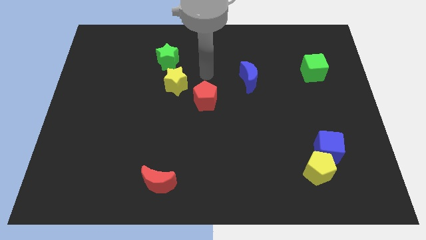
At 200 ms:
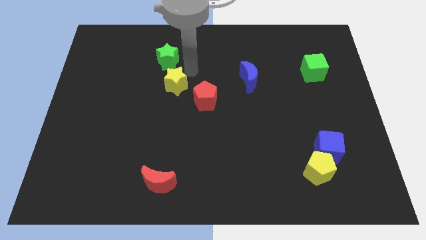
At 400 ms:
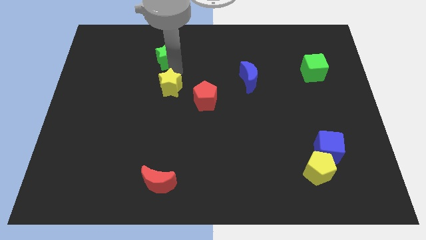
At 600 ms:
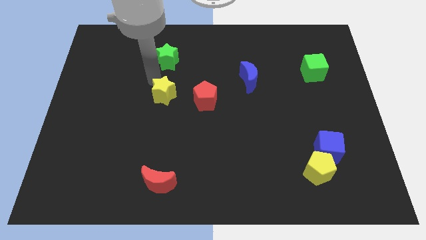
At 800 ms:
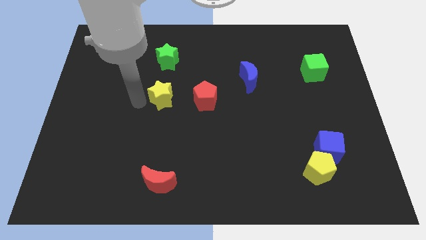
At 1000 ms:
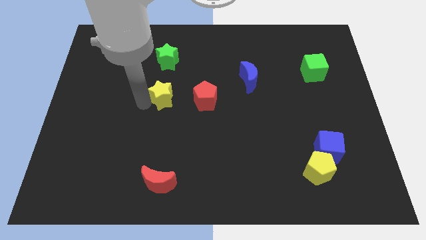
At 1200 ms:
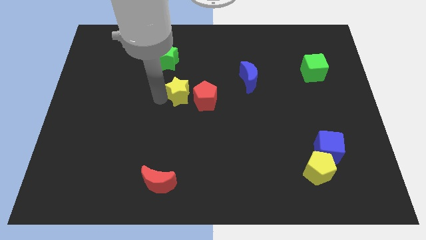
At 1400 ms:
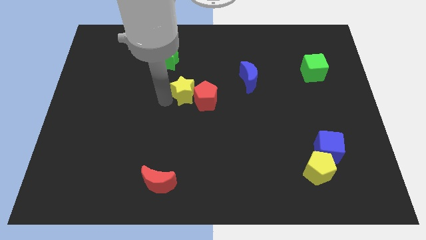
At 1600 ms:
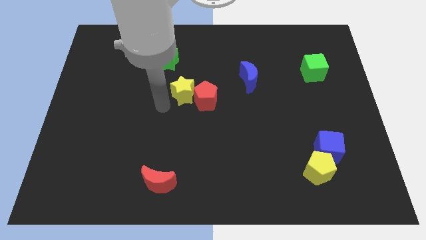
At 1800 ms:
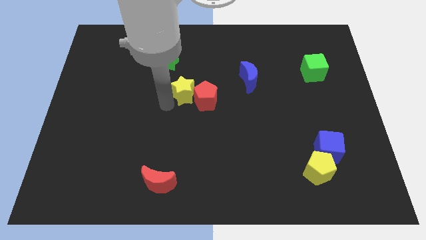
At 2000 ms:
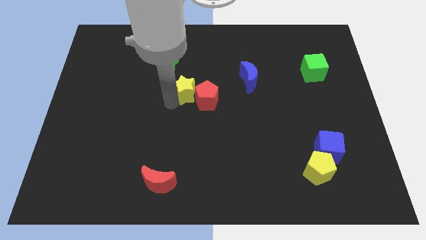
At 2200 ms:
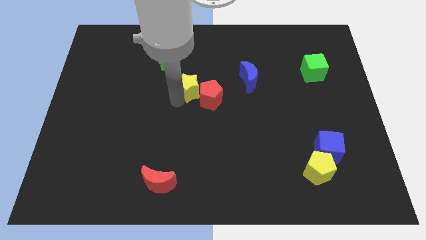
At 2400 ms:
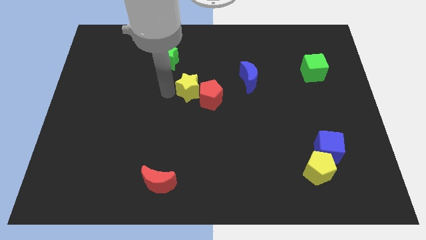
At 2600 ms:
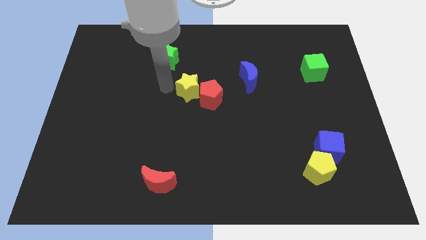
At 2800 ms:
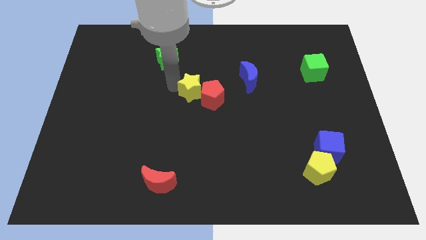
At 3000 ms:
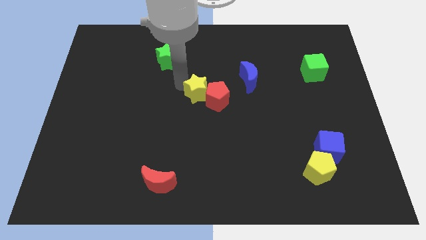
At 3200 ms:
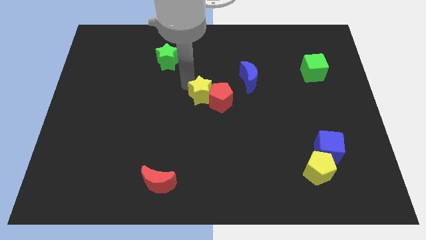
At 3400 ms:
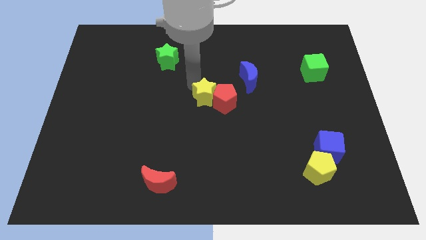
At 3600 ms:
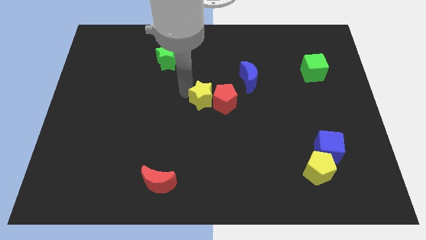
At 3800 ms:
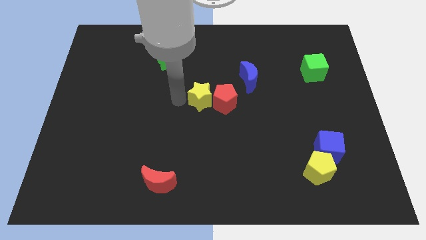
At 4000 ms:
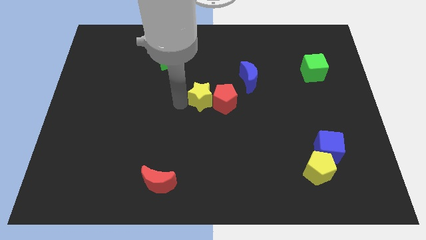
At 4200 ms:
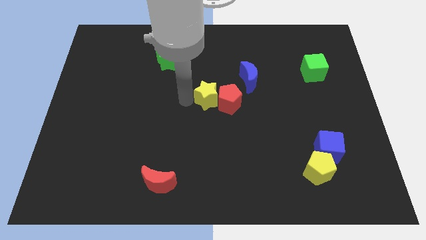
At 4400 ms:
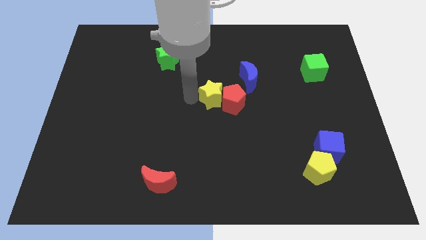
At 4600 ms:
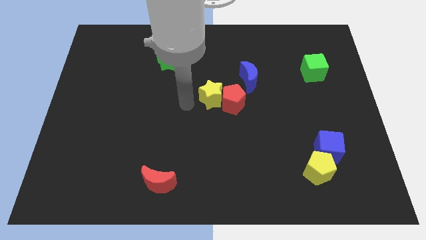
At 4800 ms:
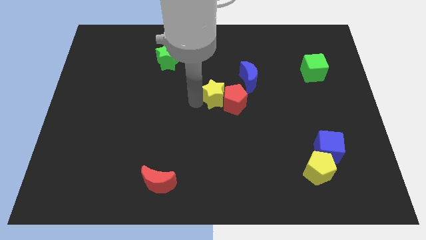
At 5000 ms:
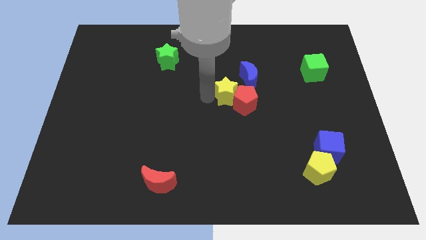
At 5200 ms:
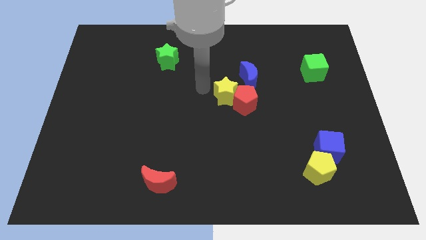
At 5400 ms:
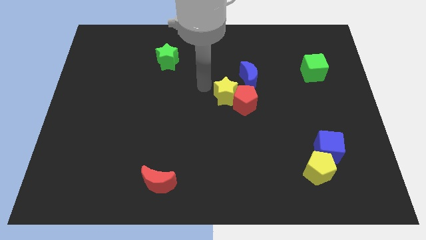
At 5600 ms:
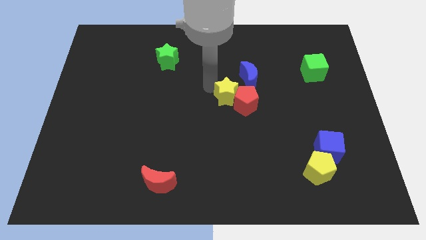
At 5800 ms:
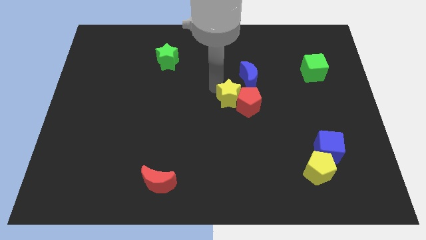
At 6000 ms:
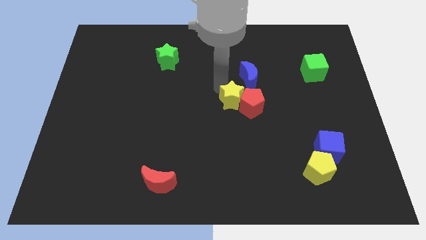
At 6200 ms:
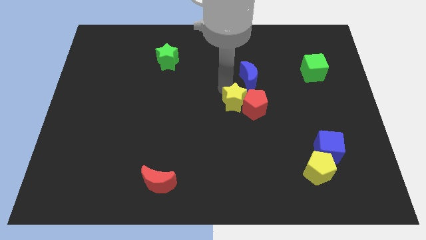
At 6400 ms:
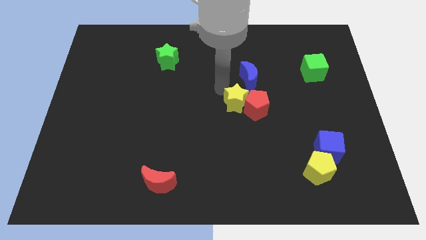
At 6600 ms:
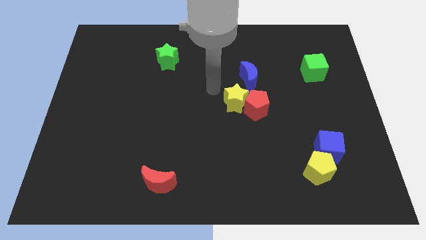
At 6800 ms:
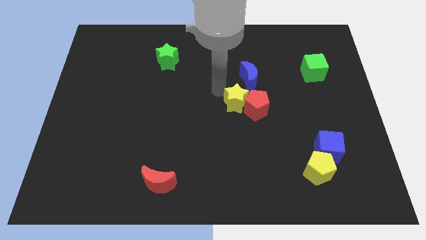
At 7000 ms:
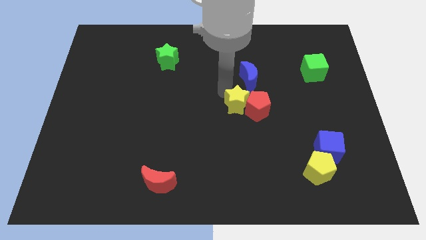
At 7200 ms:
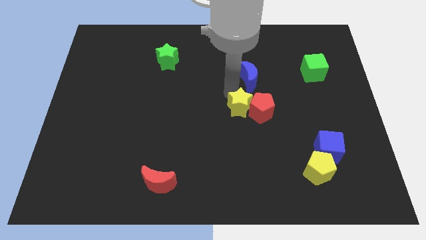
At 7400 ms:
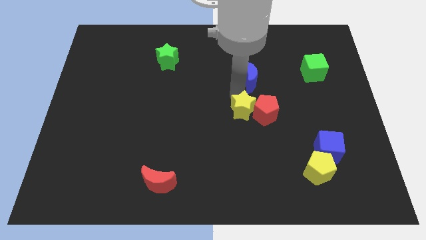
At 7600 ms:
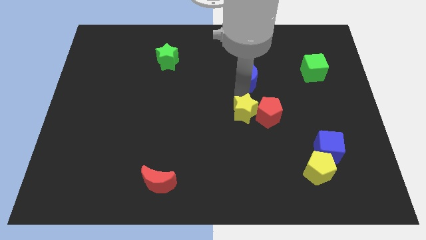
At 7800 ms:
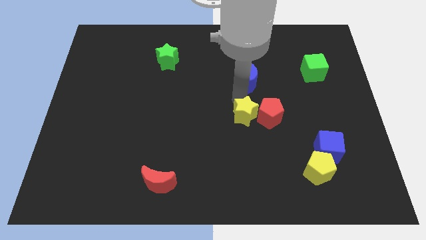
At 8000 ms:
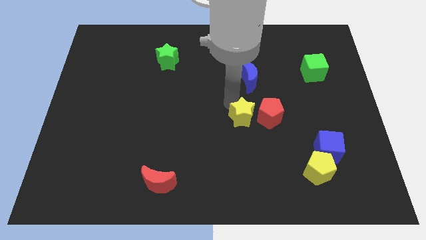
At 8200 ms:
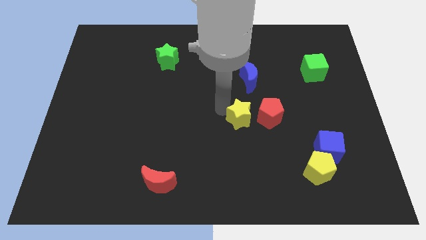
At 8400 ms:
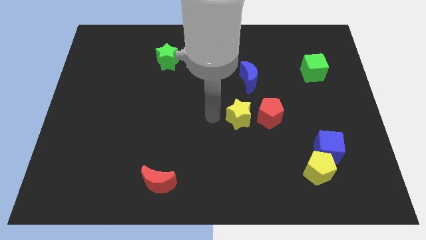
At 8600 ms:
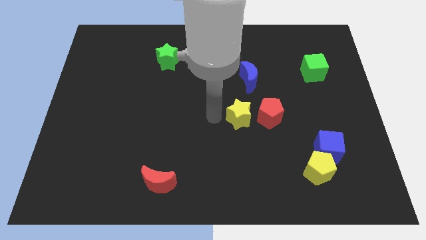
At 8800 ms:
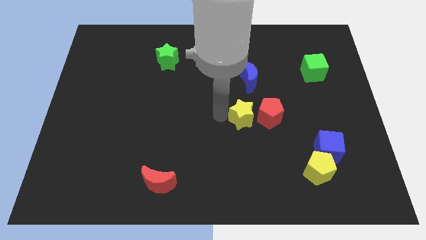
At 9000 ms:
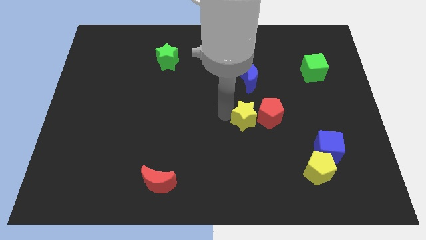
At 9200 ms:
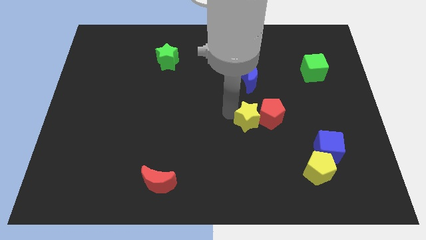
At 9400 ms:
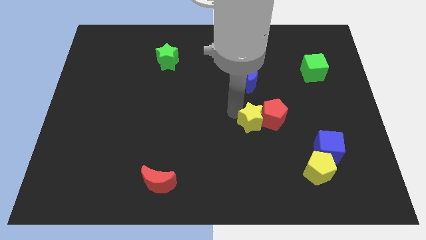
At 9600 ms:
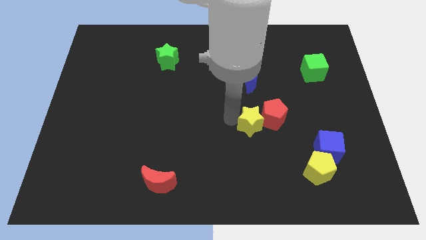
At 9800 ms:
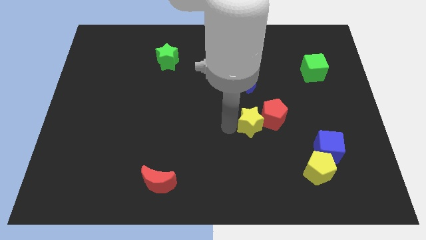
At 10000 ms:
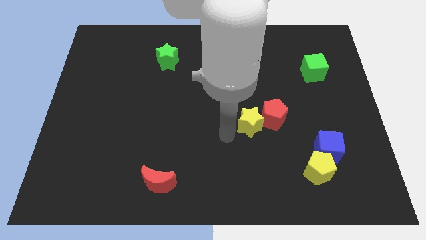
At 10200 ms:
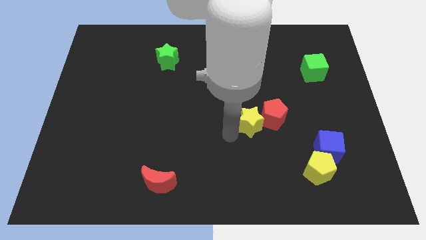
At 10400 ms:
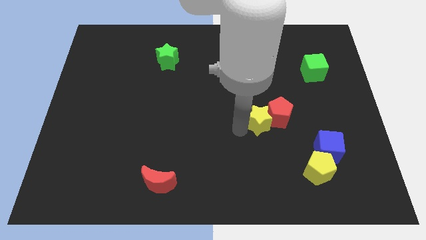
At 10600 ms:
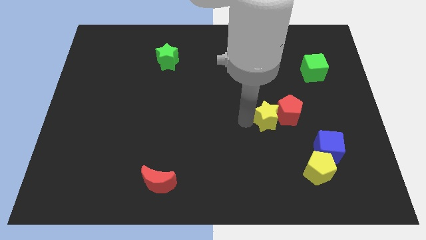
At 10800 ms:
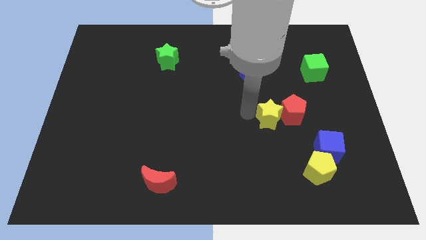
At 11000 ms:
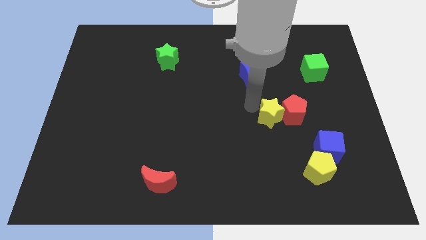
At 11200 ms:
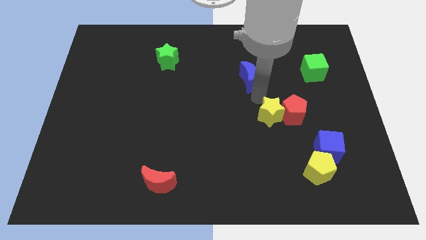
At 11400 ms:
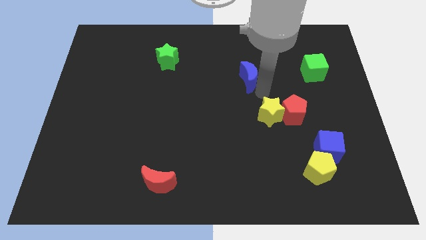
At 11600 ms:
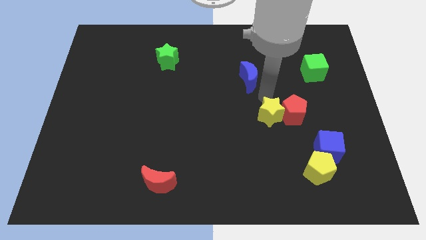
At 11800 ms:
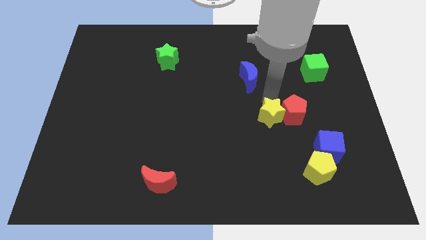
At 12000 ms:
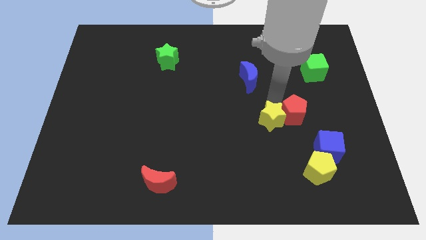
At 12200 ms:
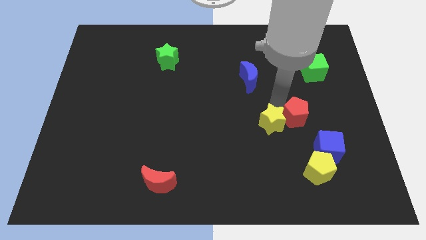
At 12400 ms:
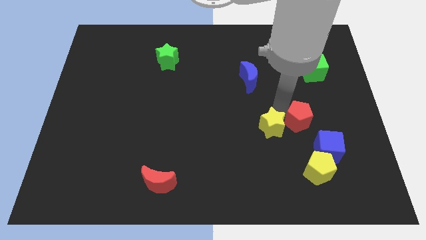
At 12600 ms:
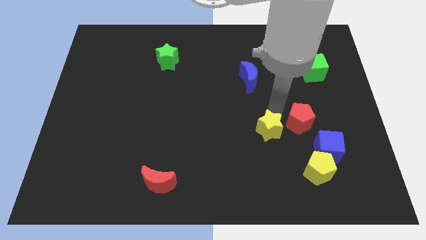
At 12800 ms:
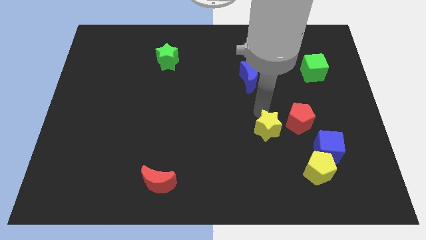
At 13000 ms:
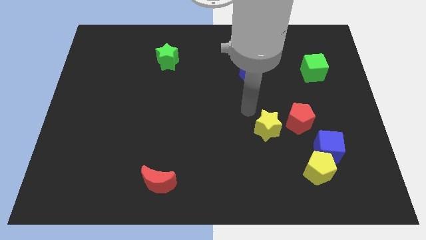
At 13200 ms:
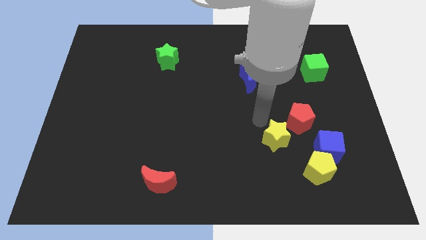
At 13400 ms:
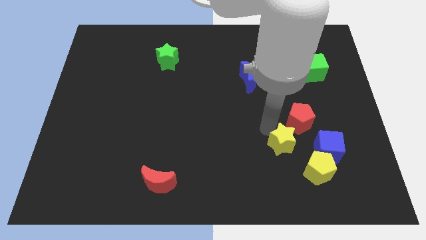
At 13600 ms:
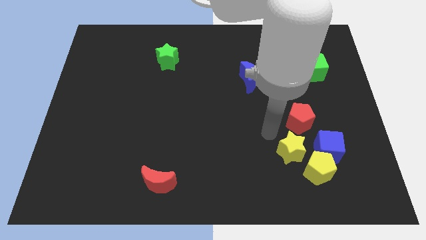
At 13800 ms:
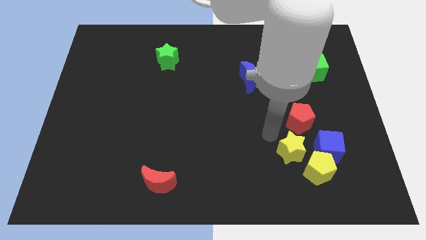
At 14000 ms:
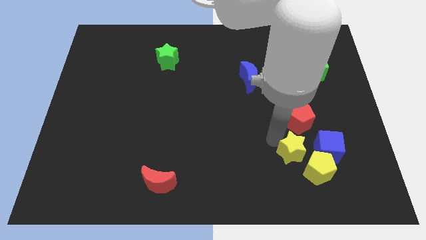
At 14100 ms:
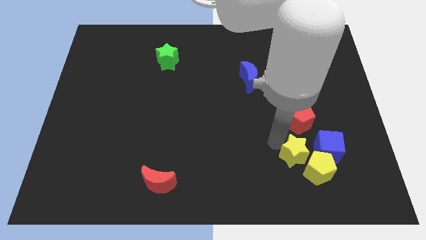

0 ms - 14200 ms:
slide the yellow star towards the yellow pentagon

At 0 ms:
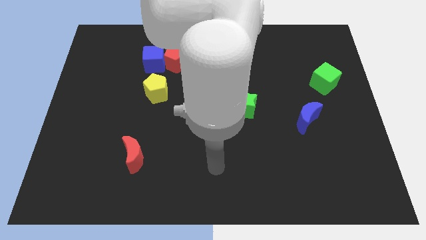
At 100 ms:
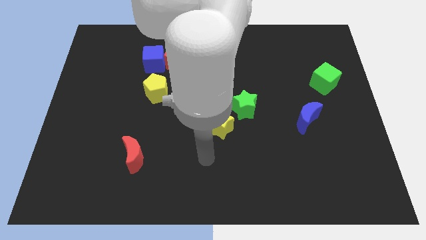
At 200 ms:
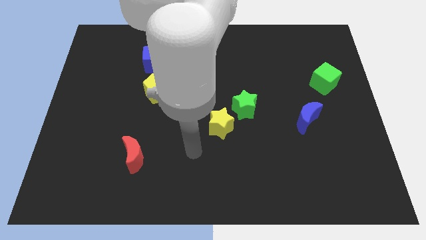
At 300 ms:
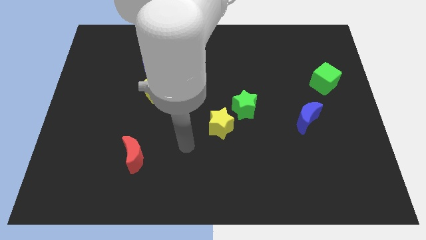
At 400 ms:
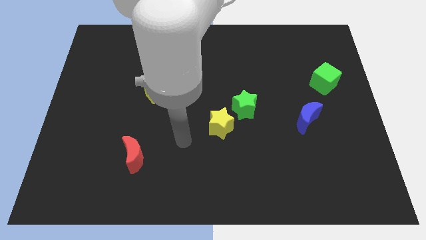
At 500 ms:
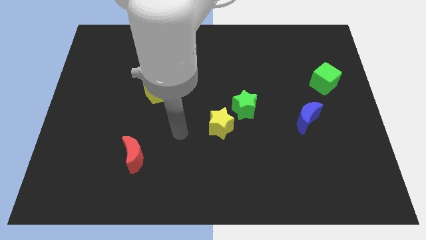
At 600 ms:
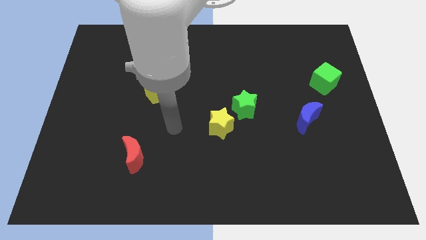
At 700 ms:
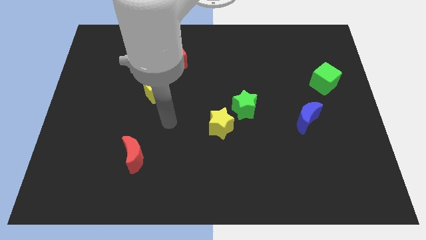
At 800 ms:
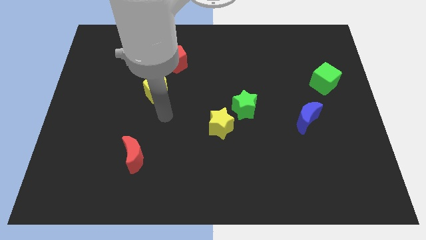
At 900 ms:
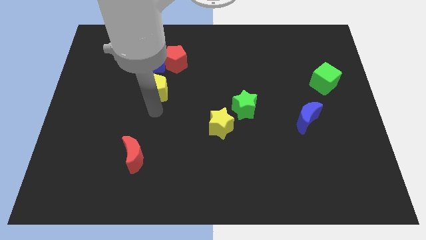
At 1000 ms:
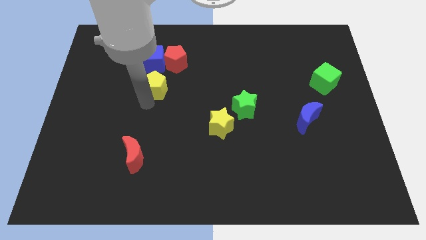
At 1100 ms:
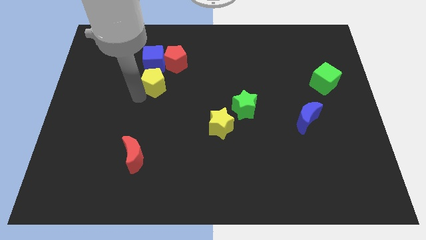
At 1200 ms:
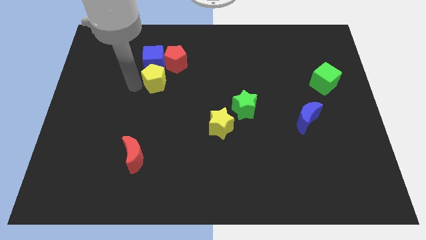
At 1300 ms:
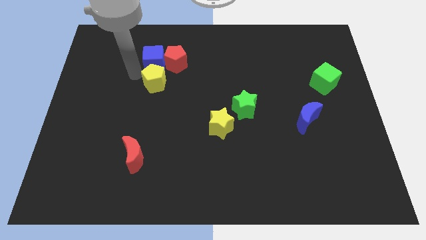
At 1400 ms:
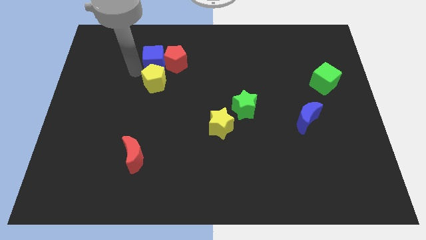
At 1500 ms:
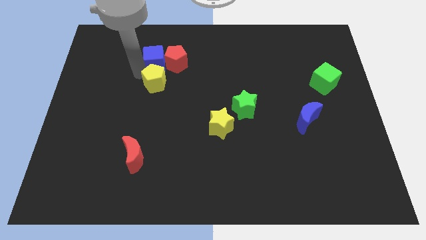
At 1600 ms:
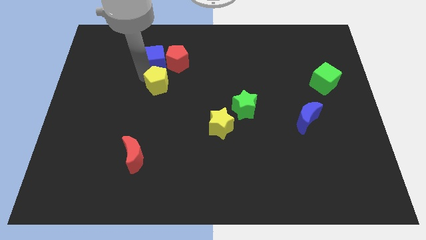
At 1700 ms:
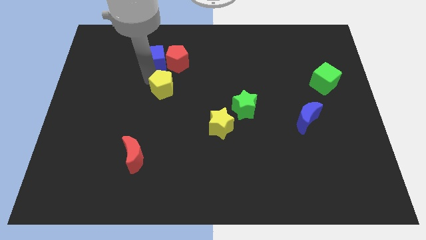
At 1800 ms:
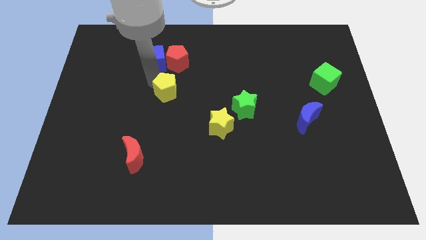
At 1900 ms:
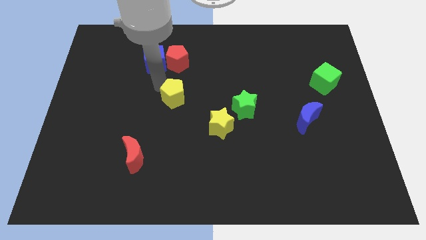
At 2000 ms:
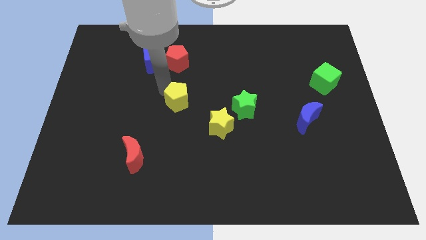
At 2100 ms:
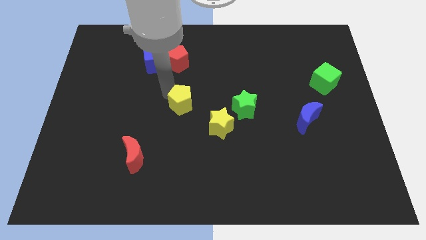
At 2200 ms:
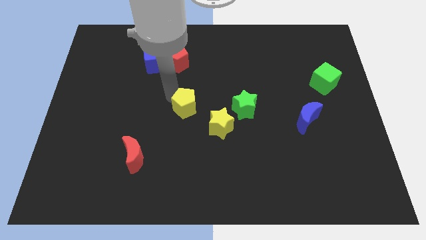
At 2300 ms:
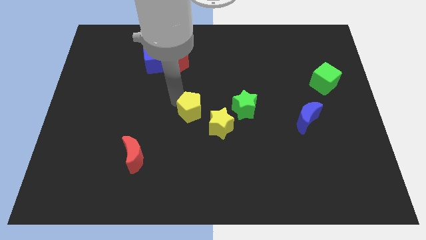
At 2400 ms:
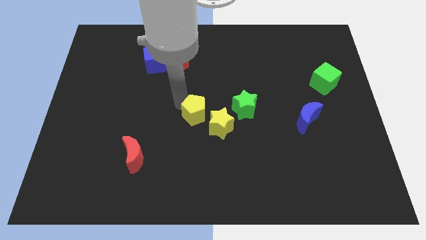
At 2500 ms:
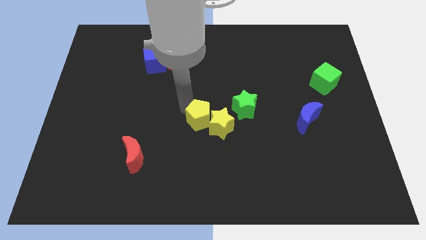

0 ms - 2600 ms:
move the yellow pentagon next to the yellow star
